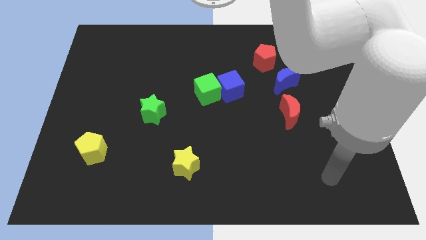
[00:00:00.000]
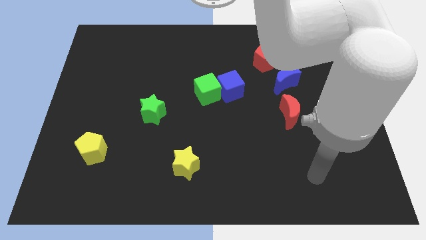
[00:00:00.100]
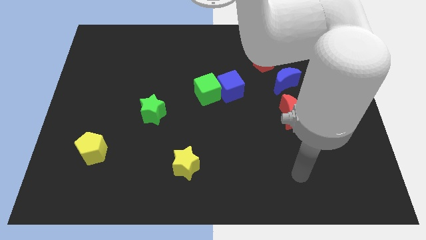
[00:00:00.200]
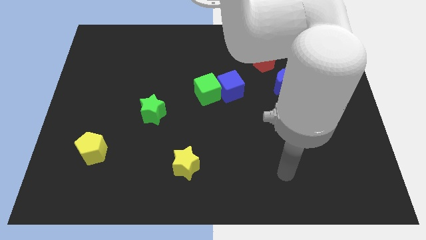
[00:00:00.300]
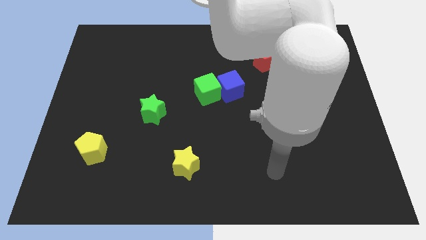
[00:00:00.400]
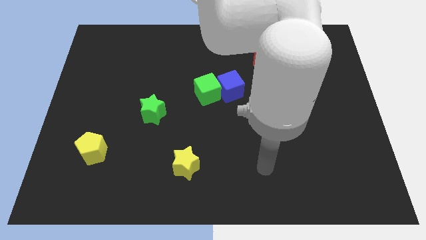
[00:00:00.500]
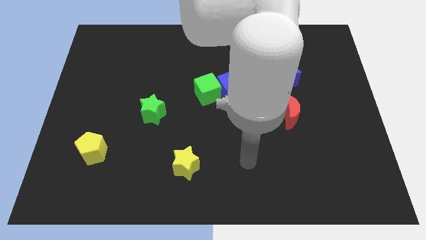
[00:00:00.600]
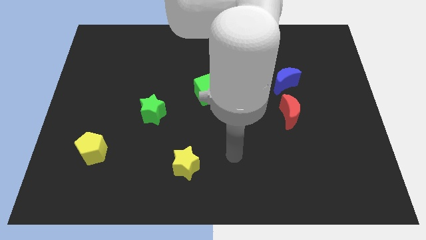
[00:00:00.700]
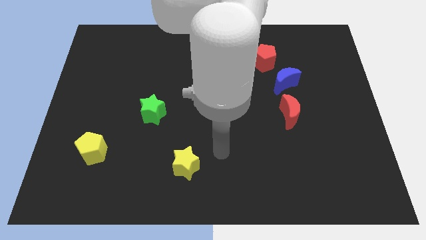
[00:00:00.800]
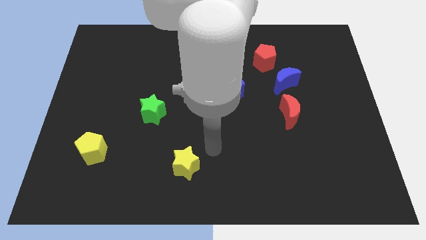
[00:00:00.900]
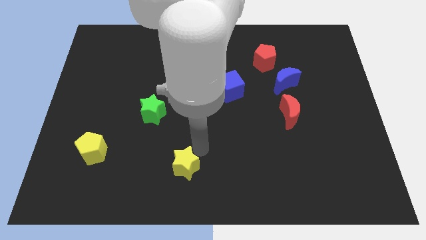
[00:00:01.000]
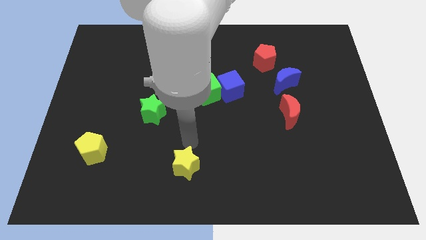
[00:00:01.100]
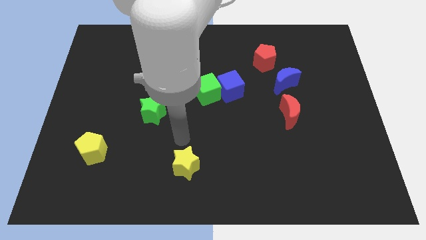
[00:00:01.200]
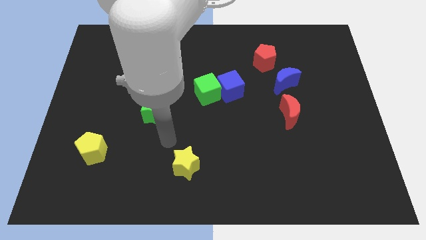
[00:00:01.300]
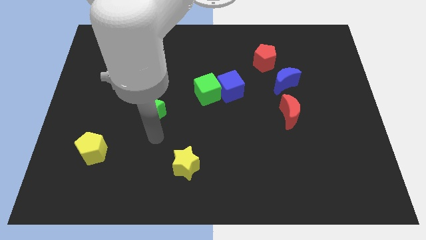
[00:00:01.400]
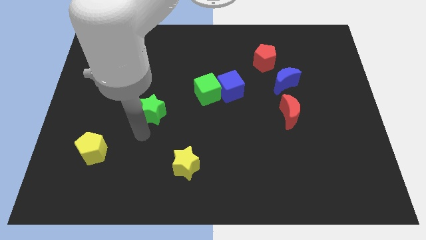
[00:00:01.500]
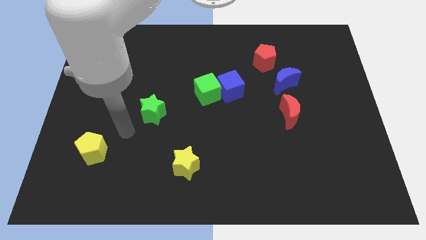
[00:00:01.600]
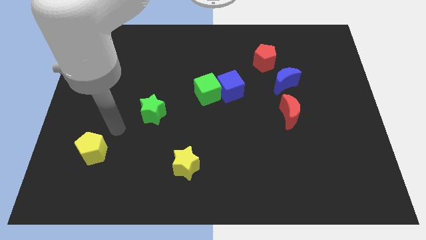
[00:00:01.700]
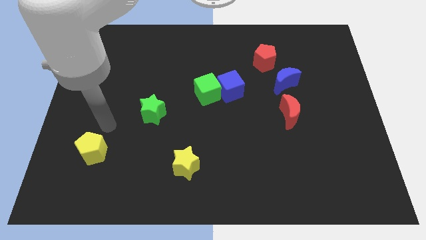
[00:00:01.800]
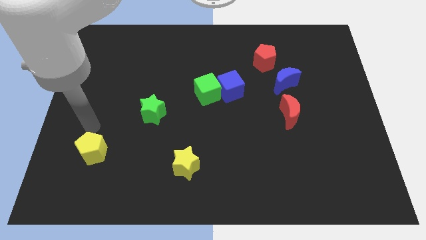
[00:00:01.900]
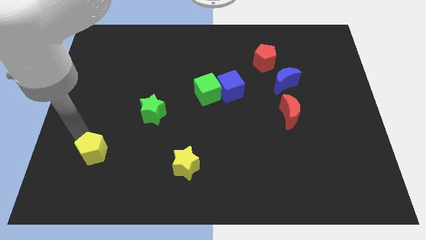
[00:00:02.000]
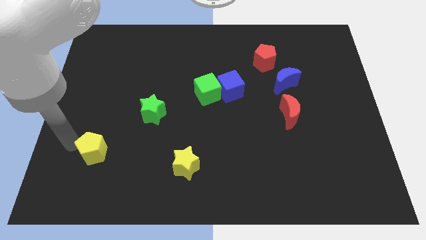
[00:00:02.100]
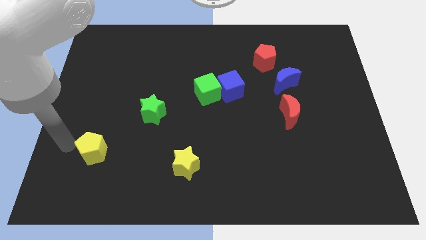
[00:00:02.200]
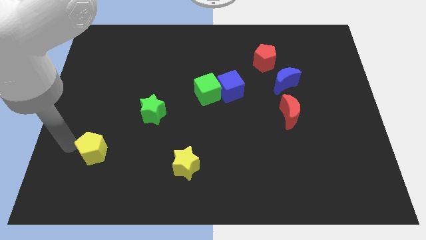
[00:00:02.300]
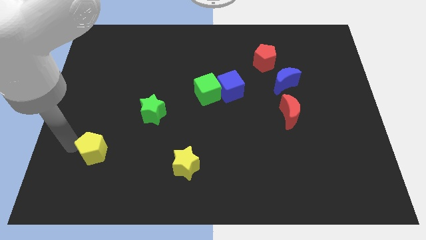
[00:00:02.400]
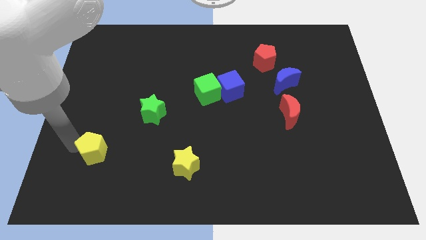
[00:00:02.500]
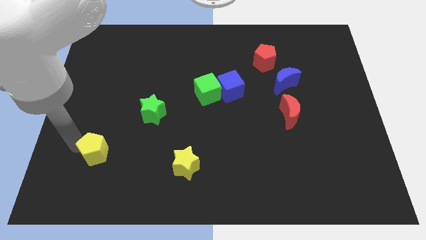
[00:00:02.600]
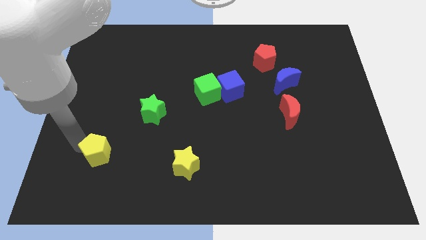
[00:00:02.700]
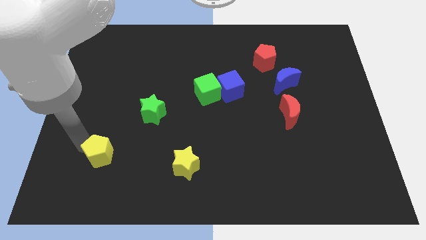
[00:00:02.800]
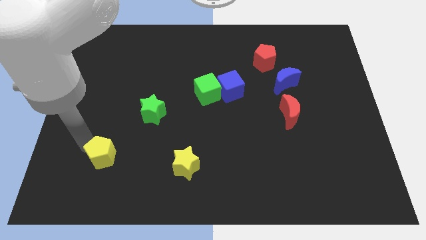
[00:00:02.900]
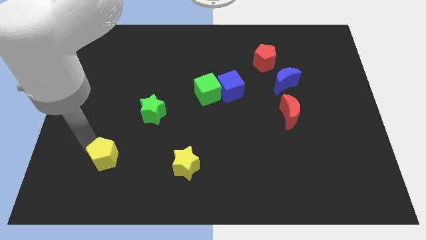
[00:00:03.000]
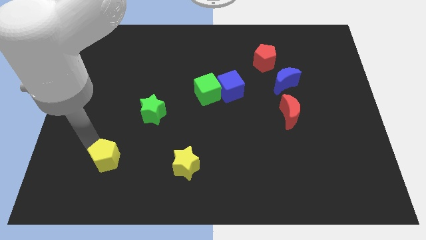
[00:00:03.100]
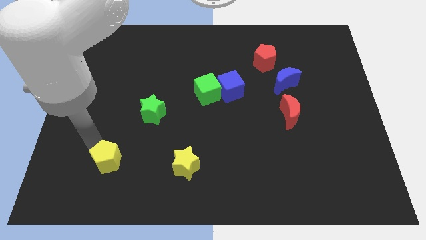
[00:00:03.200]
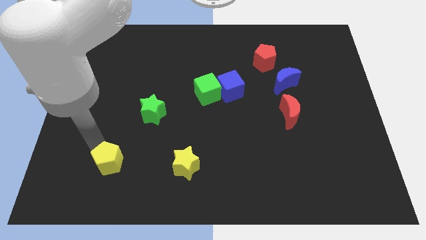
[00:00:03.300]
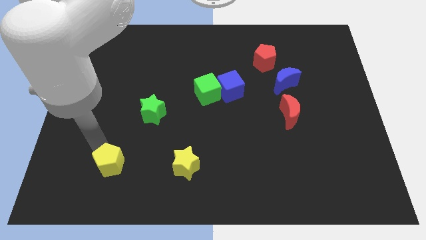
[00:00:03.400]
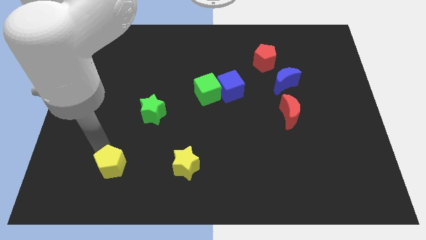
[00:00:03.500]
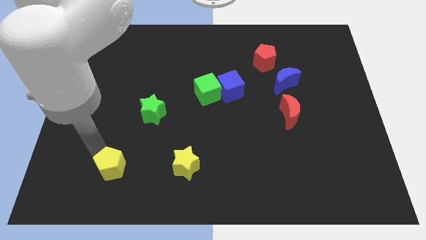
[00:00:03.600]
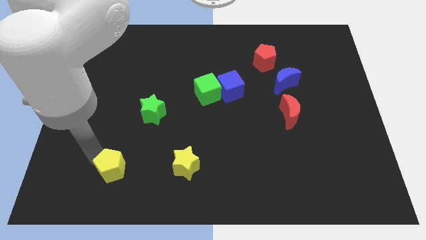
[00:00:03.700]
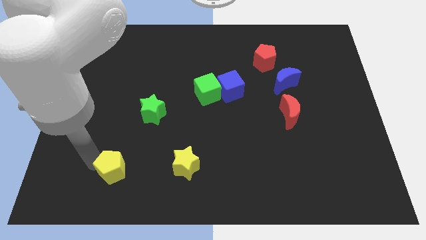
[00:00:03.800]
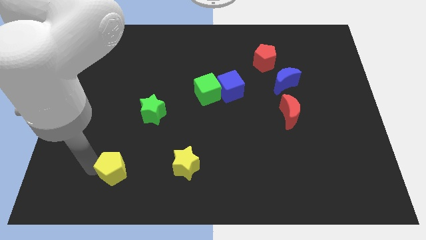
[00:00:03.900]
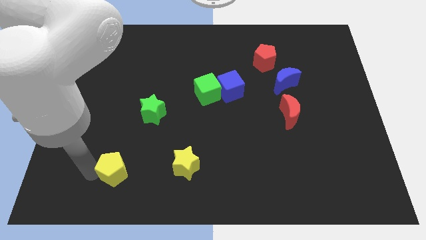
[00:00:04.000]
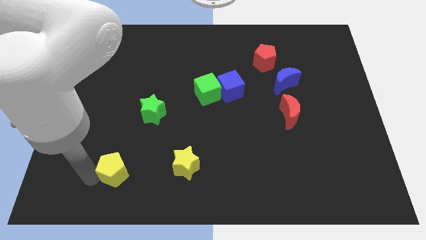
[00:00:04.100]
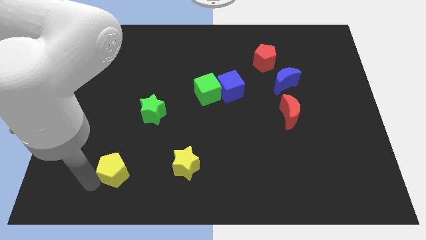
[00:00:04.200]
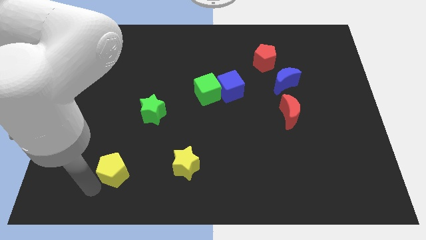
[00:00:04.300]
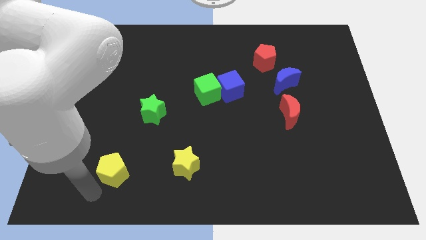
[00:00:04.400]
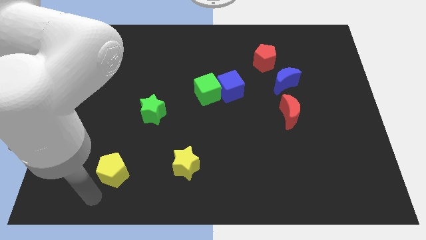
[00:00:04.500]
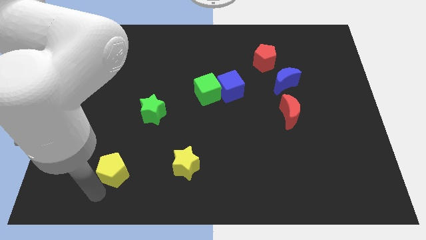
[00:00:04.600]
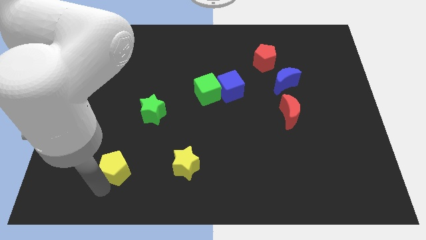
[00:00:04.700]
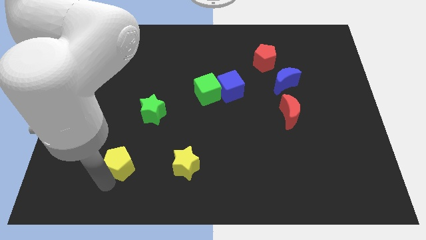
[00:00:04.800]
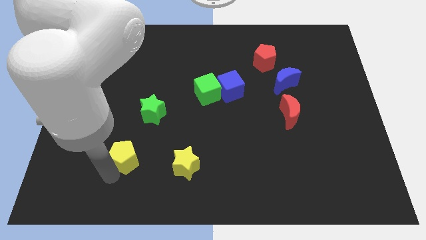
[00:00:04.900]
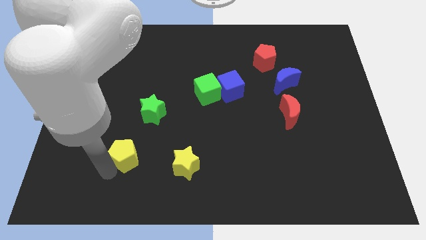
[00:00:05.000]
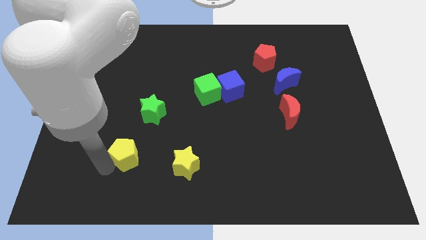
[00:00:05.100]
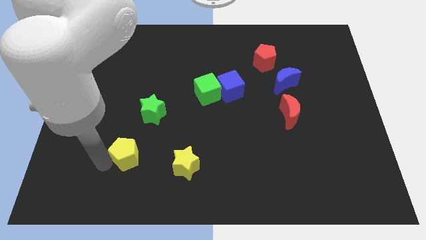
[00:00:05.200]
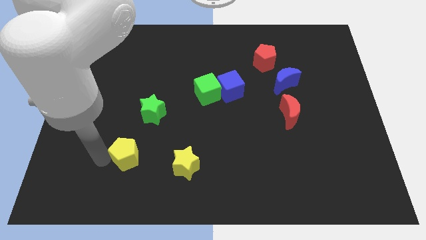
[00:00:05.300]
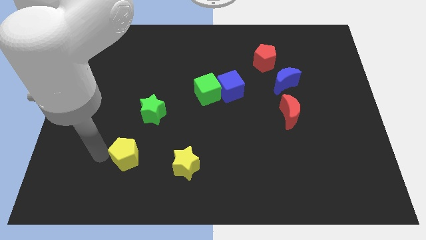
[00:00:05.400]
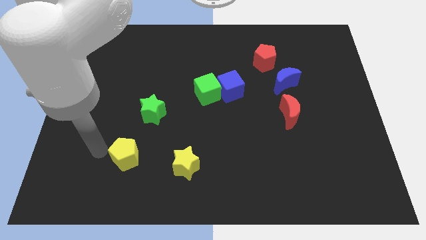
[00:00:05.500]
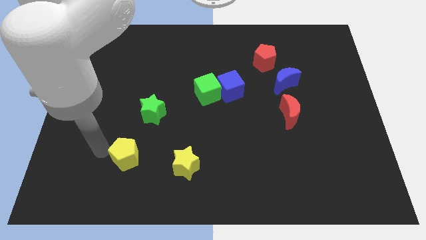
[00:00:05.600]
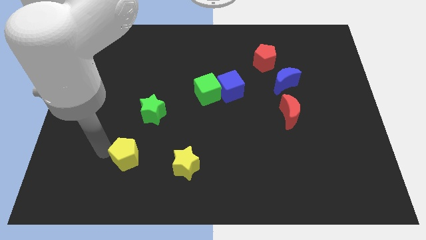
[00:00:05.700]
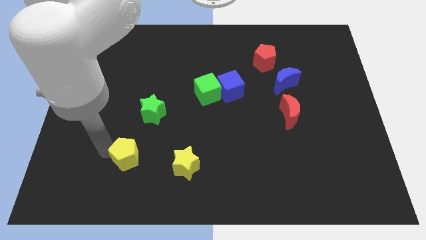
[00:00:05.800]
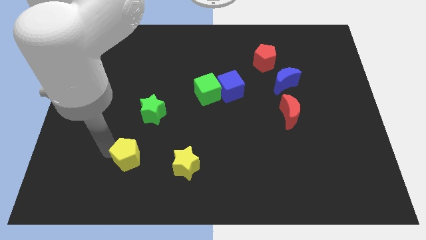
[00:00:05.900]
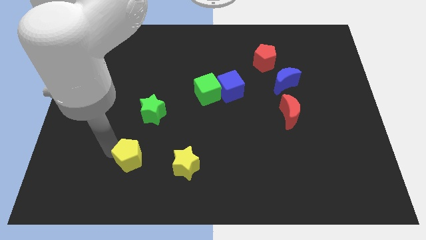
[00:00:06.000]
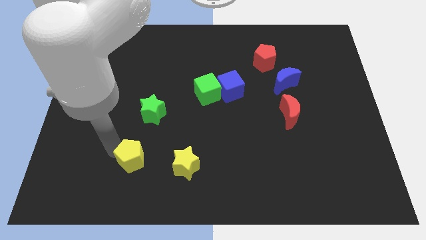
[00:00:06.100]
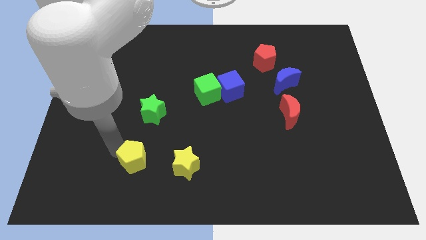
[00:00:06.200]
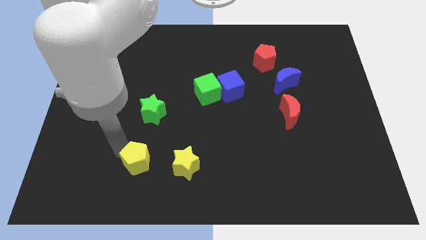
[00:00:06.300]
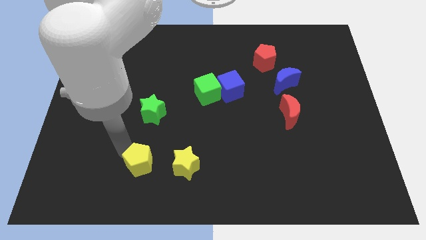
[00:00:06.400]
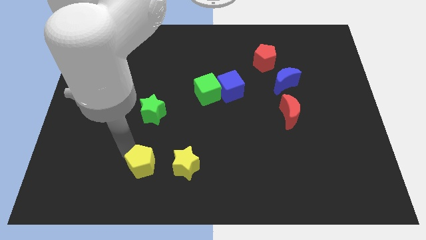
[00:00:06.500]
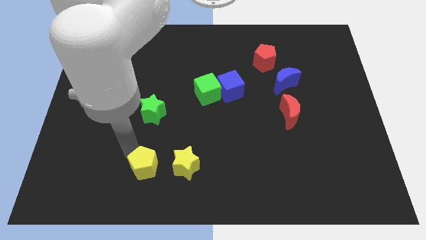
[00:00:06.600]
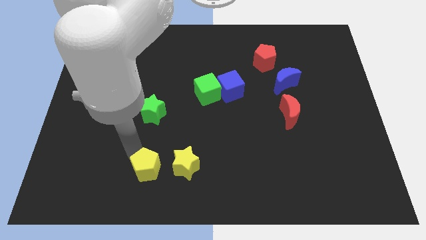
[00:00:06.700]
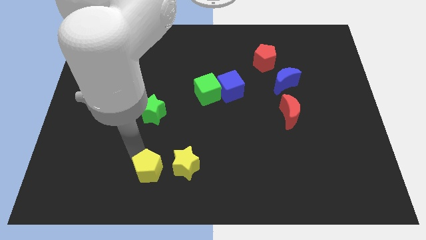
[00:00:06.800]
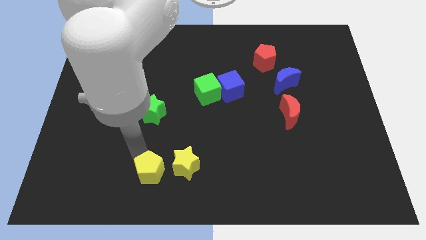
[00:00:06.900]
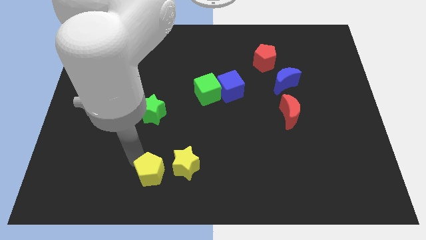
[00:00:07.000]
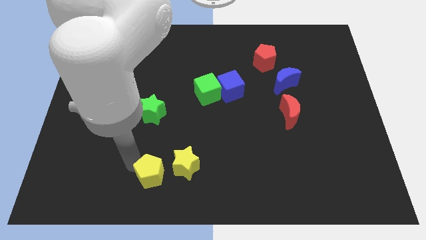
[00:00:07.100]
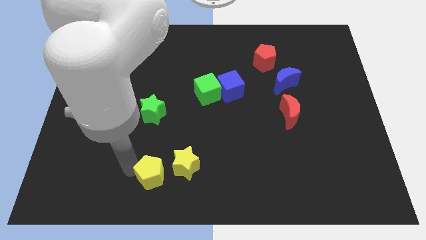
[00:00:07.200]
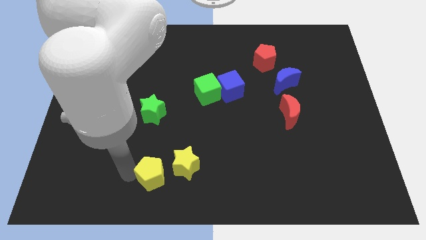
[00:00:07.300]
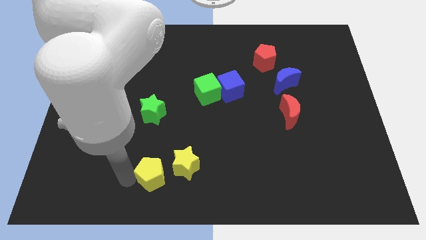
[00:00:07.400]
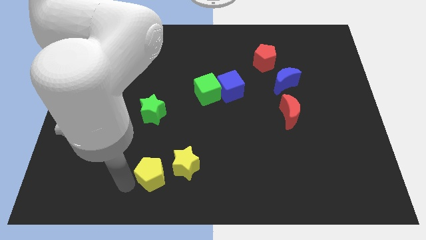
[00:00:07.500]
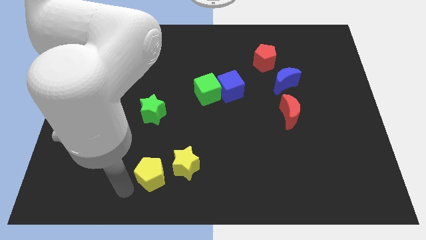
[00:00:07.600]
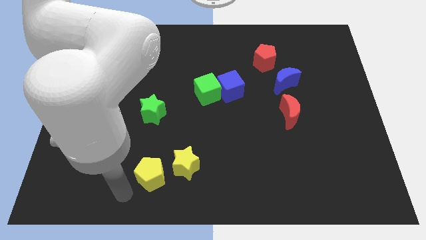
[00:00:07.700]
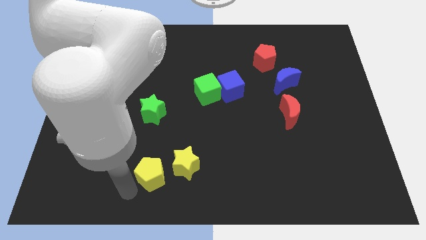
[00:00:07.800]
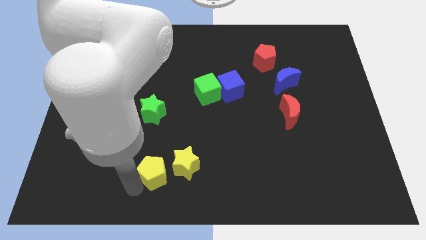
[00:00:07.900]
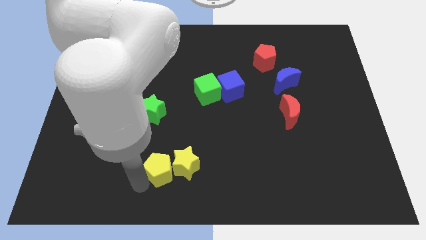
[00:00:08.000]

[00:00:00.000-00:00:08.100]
slide the yellow pentagon to the yellow star
